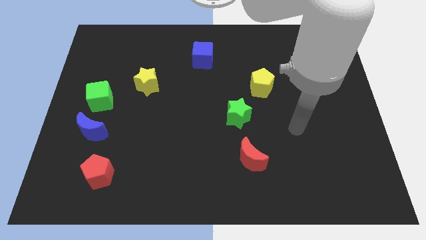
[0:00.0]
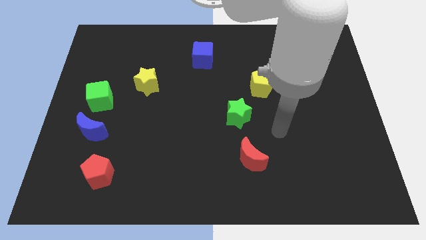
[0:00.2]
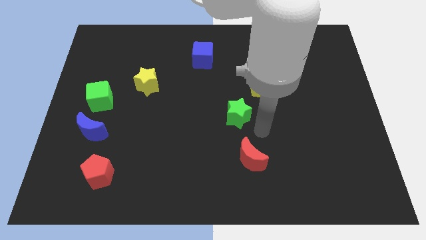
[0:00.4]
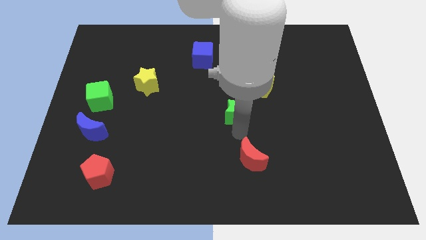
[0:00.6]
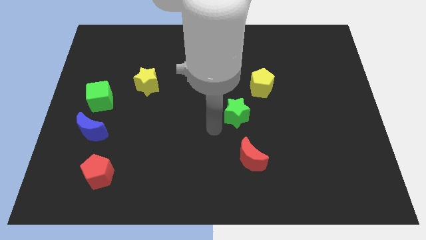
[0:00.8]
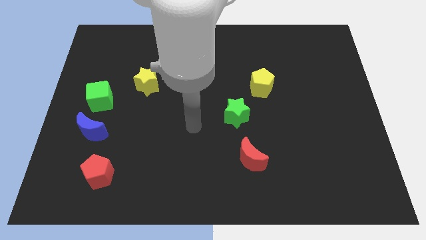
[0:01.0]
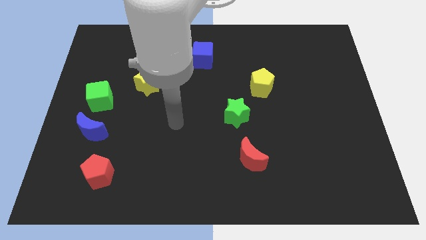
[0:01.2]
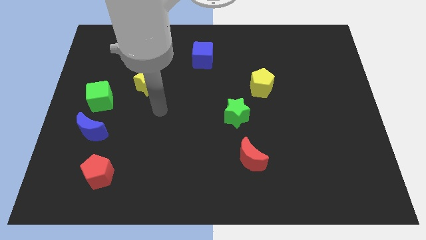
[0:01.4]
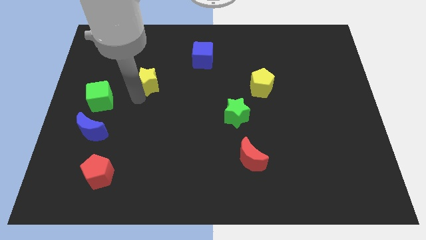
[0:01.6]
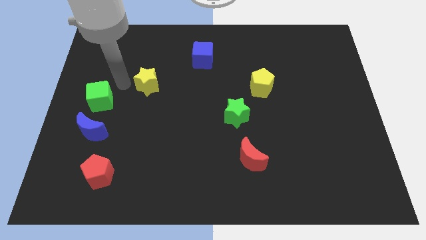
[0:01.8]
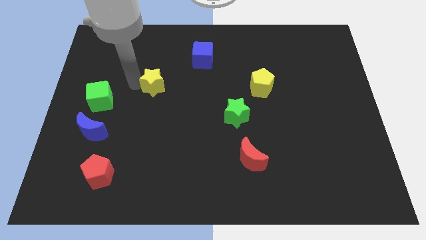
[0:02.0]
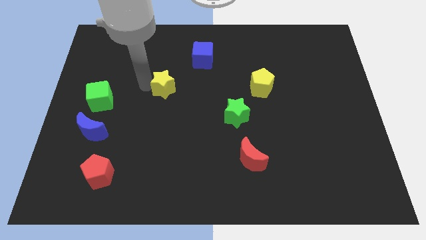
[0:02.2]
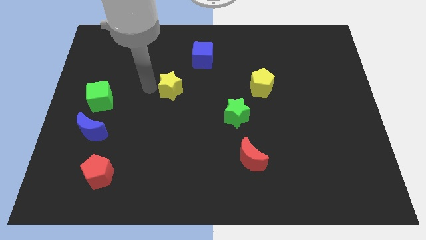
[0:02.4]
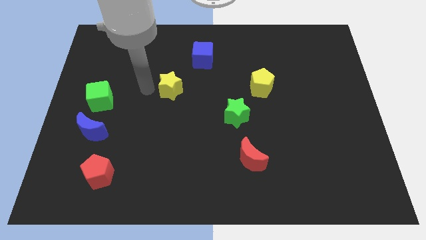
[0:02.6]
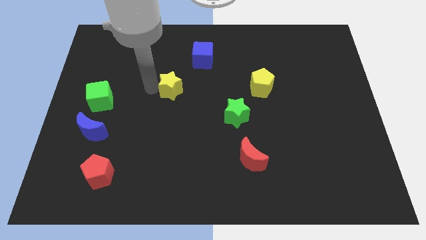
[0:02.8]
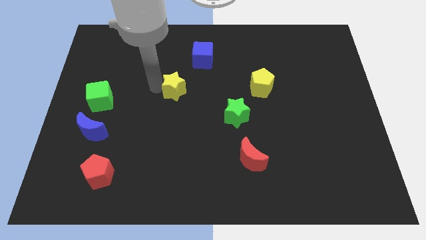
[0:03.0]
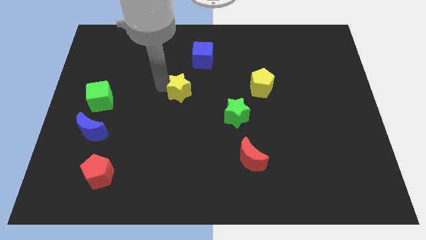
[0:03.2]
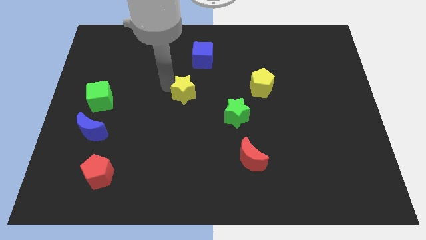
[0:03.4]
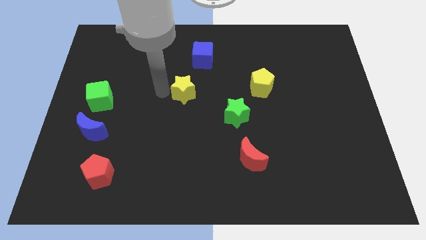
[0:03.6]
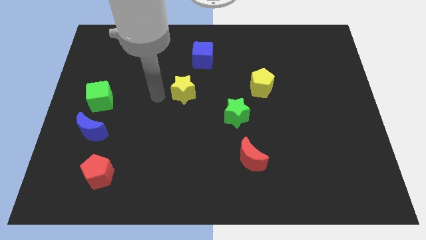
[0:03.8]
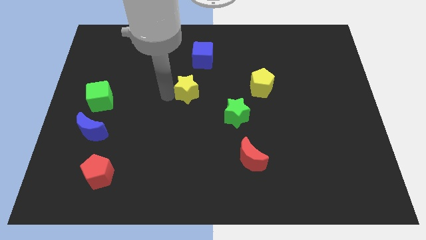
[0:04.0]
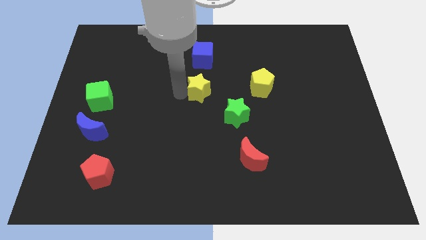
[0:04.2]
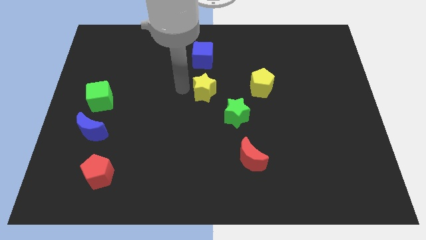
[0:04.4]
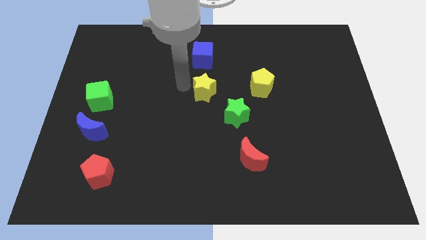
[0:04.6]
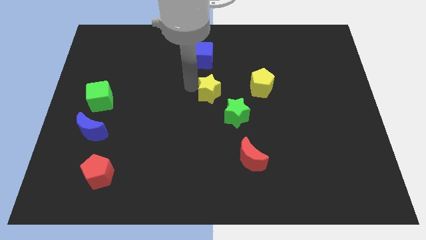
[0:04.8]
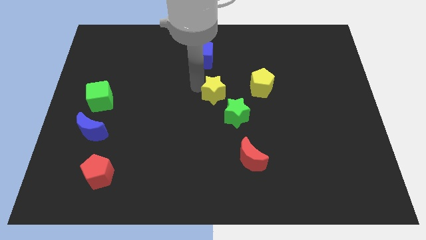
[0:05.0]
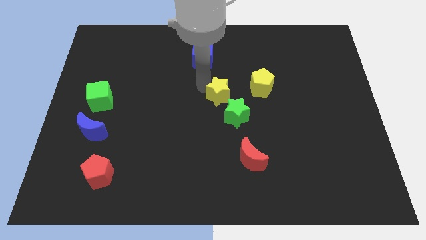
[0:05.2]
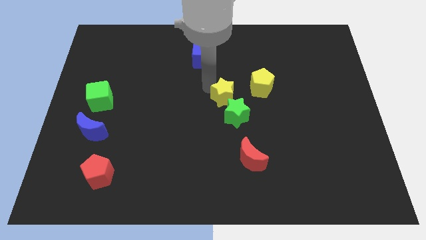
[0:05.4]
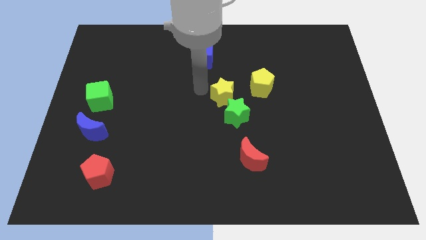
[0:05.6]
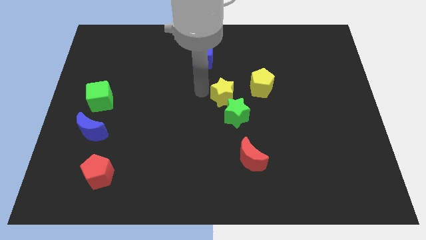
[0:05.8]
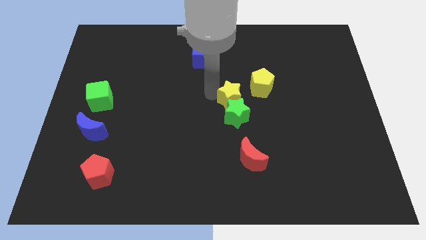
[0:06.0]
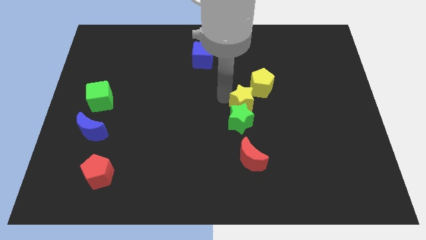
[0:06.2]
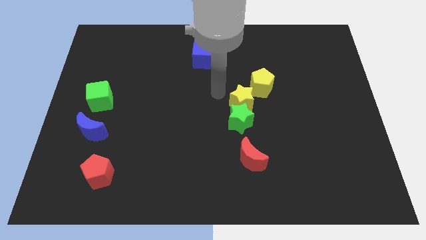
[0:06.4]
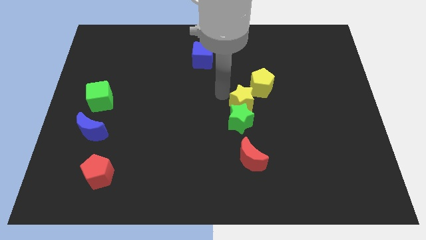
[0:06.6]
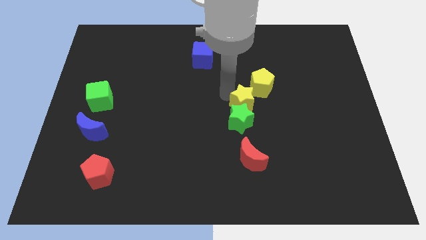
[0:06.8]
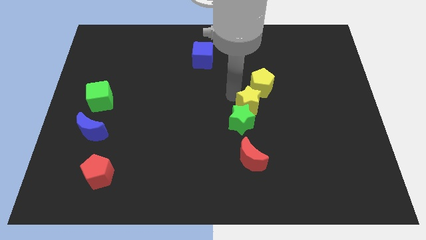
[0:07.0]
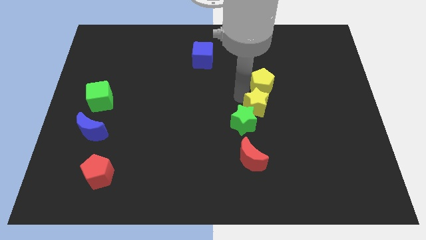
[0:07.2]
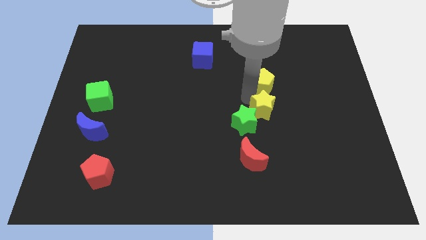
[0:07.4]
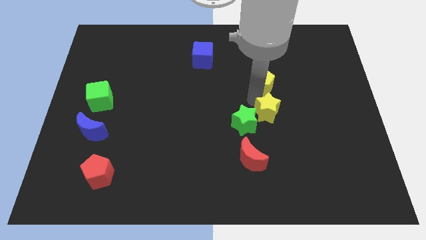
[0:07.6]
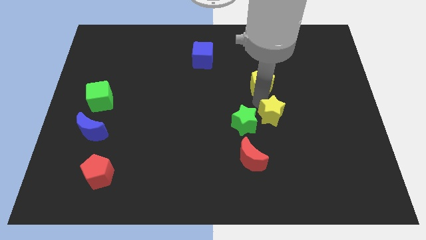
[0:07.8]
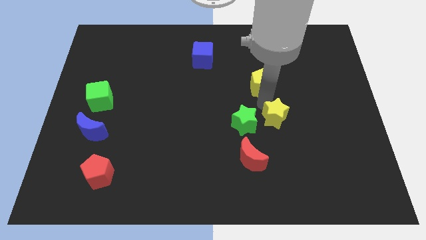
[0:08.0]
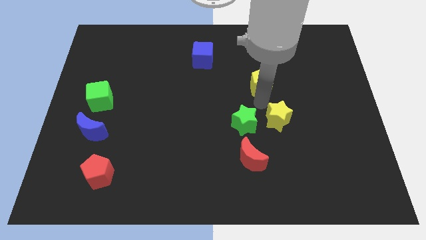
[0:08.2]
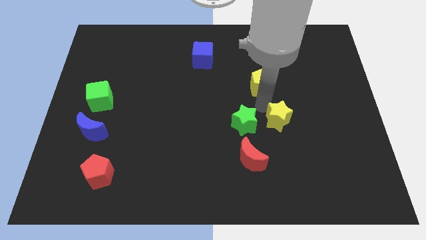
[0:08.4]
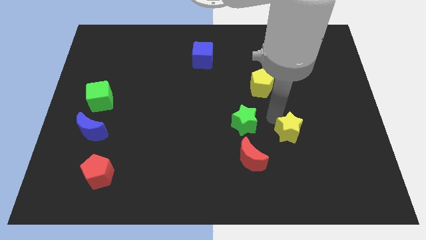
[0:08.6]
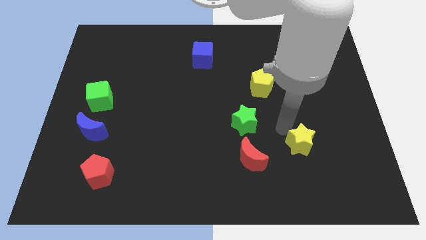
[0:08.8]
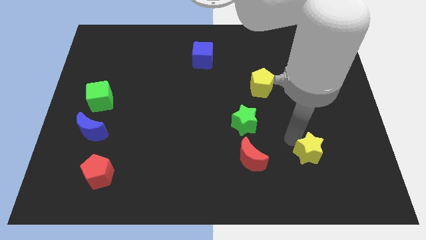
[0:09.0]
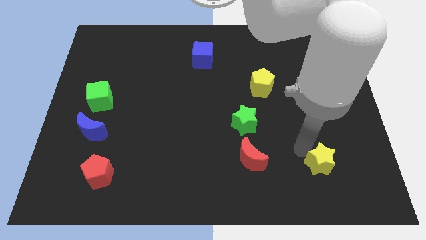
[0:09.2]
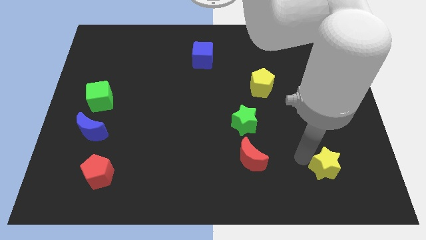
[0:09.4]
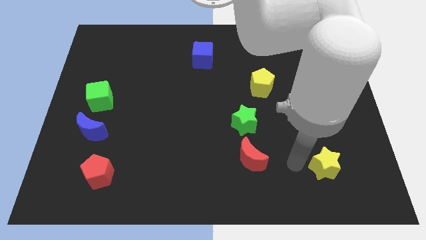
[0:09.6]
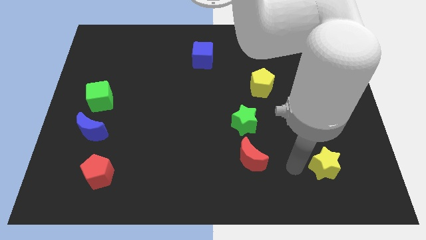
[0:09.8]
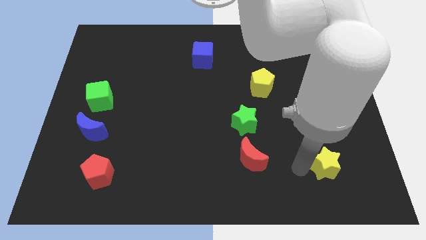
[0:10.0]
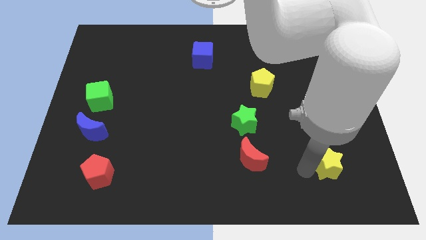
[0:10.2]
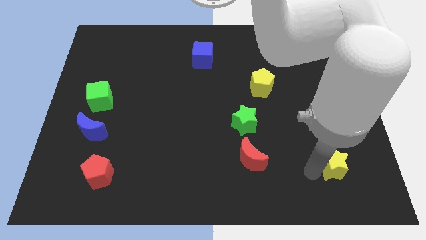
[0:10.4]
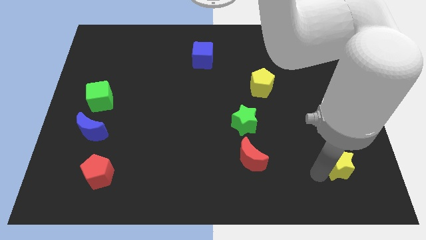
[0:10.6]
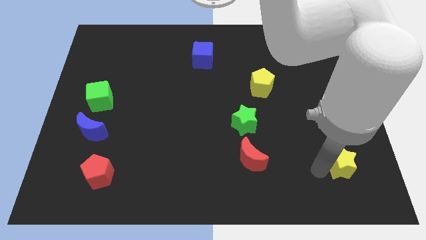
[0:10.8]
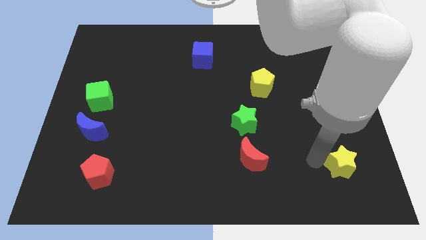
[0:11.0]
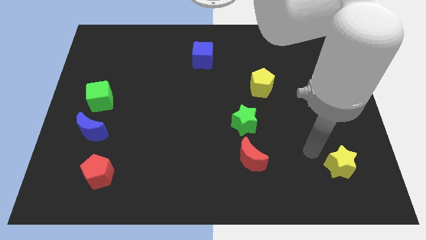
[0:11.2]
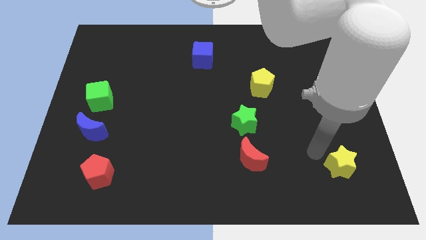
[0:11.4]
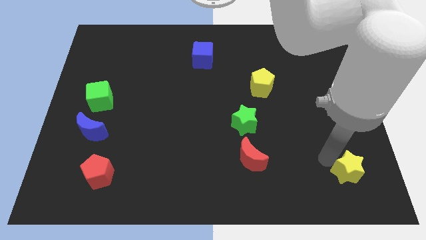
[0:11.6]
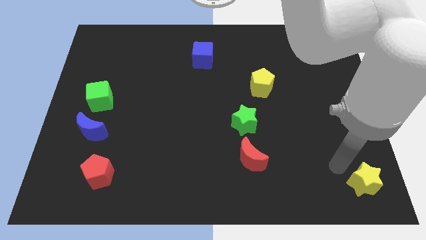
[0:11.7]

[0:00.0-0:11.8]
move the yellow star to the bottom right of the board
